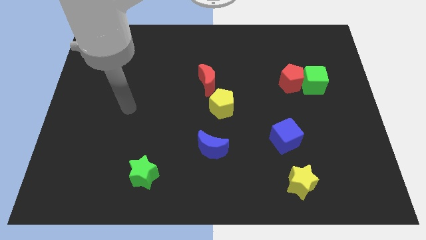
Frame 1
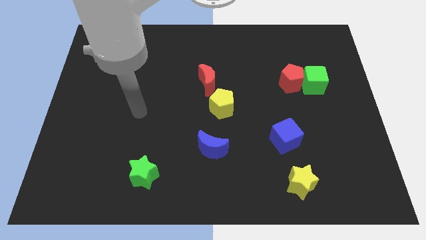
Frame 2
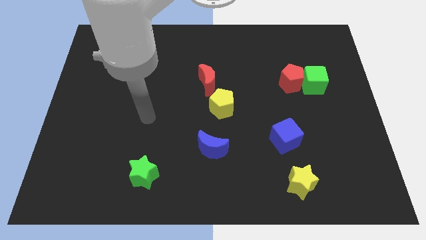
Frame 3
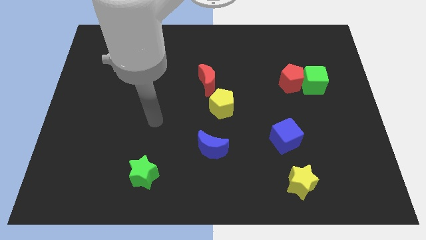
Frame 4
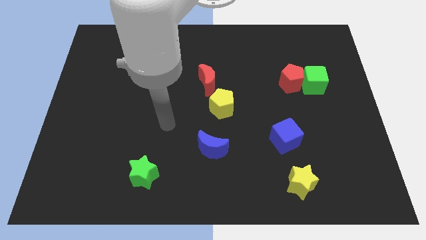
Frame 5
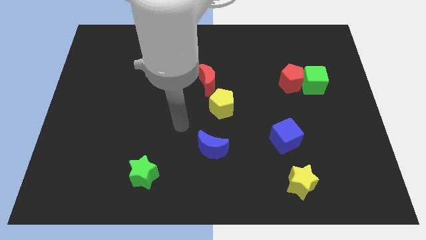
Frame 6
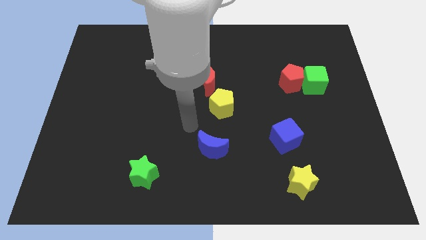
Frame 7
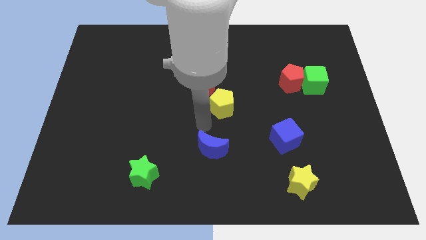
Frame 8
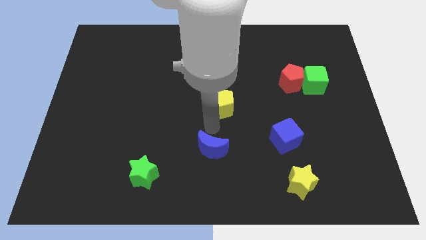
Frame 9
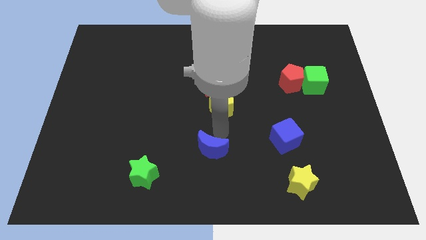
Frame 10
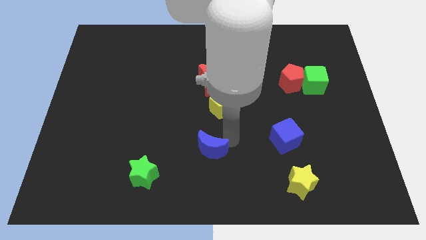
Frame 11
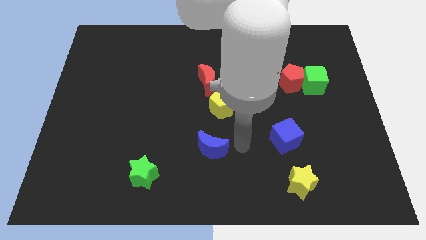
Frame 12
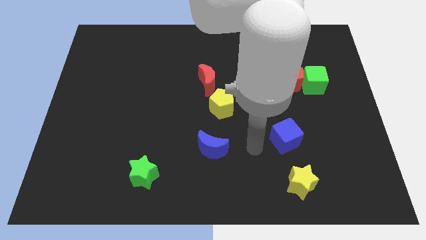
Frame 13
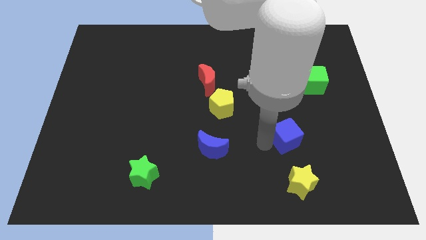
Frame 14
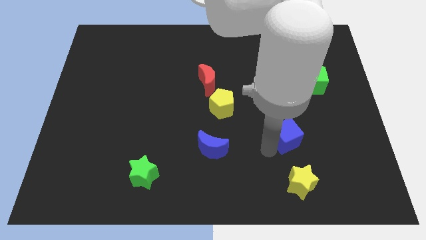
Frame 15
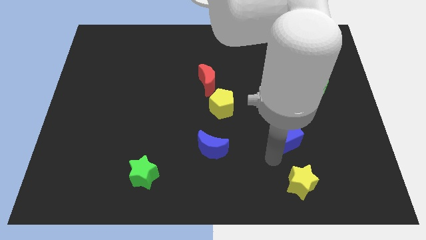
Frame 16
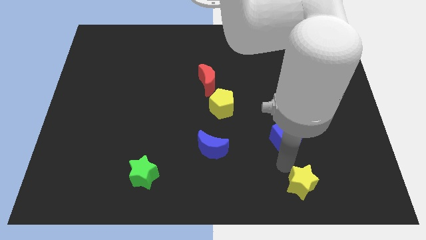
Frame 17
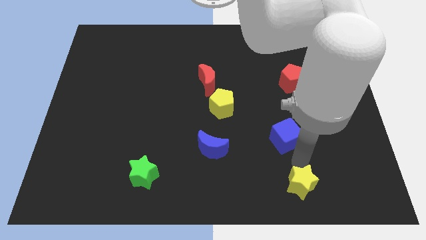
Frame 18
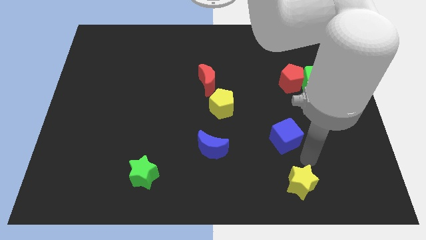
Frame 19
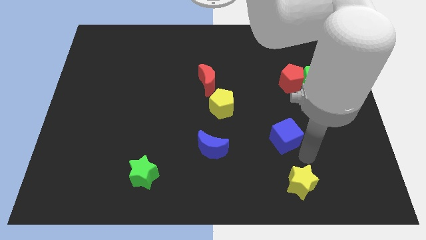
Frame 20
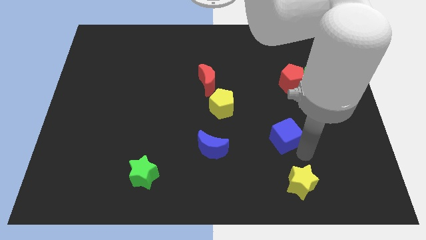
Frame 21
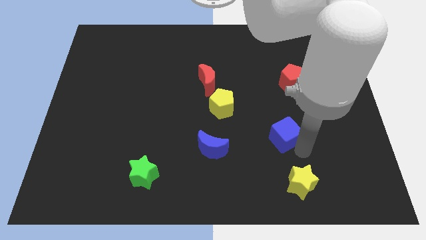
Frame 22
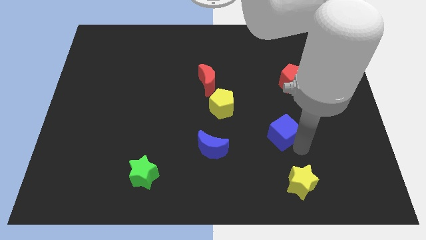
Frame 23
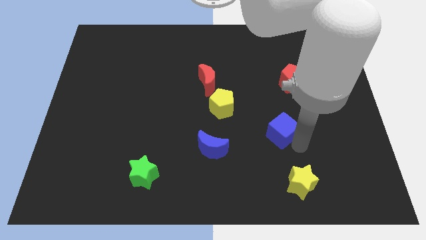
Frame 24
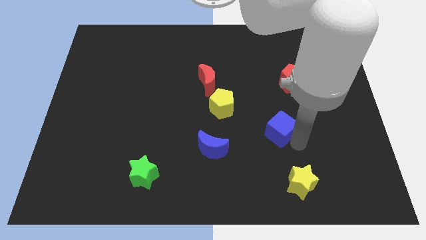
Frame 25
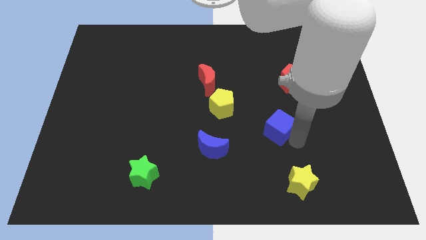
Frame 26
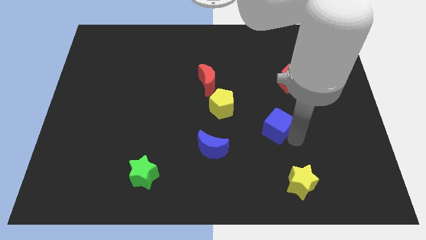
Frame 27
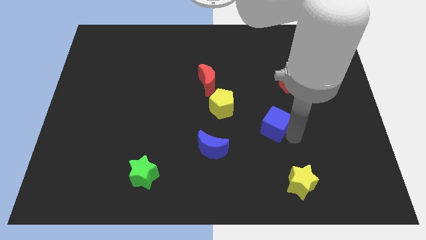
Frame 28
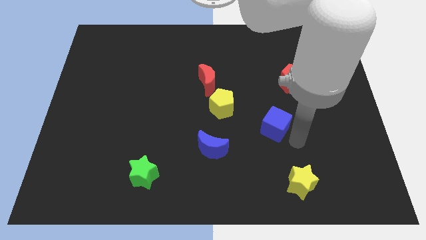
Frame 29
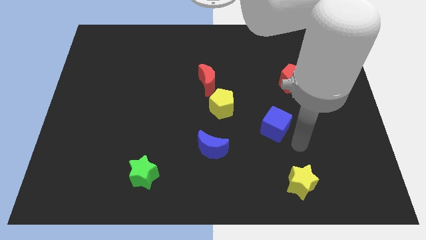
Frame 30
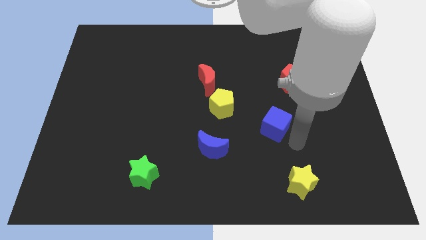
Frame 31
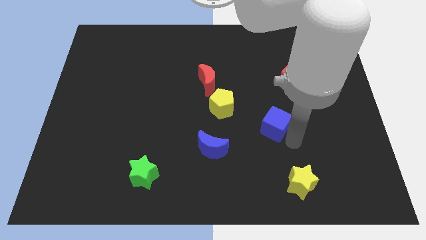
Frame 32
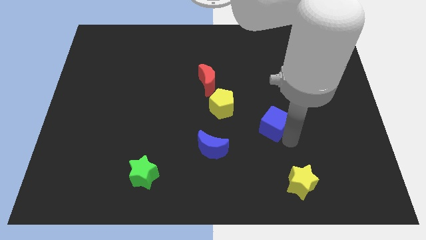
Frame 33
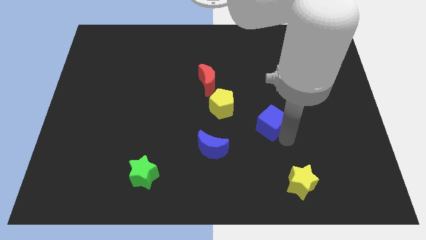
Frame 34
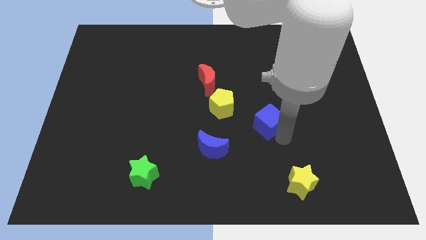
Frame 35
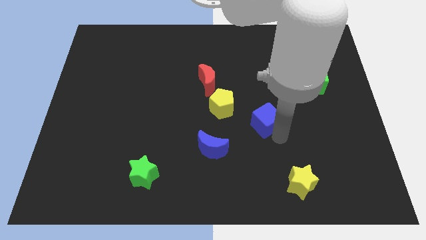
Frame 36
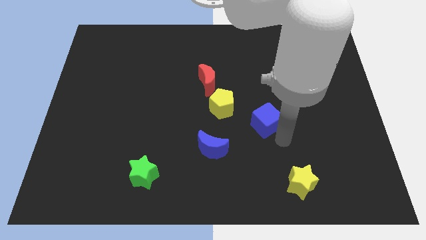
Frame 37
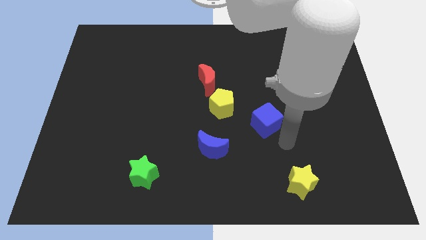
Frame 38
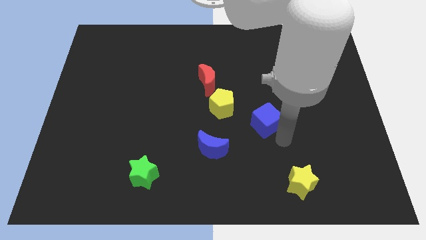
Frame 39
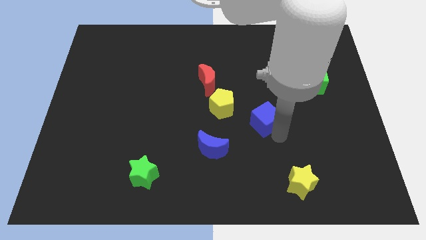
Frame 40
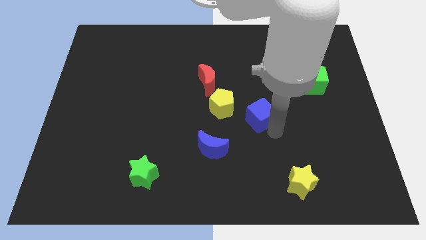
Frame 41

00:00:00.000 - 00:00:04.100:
slide the blue cube upwards and then left a little

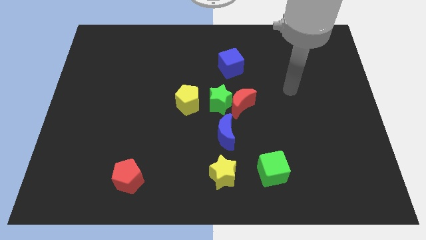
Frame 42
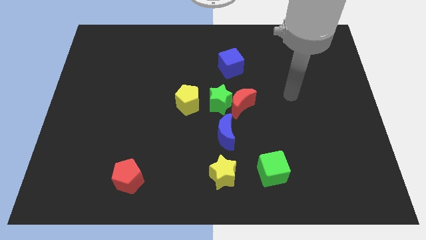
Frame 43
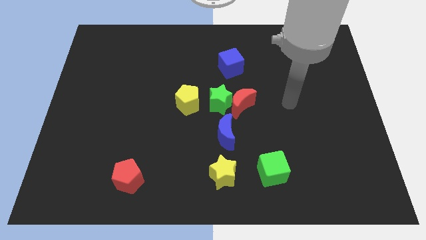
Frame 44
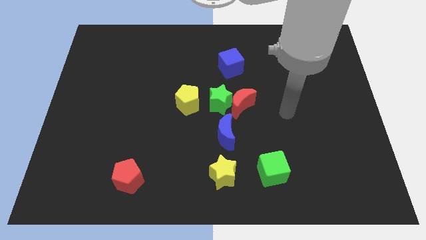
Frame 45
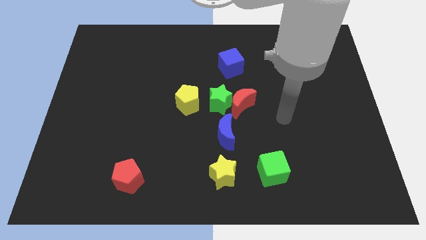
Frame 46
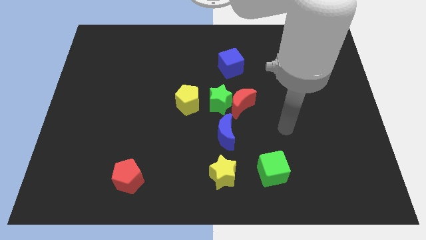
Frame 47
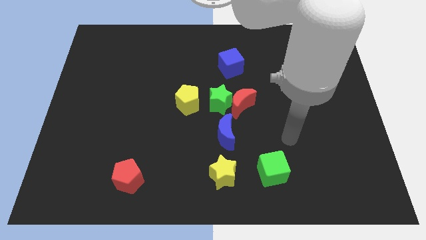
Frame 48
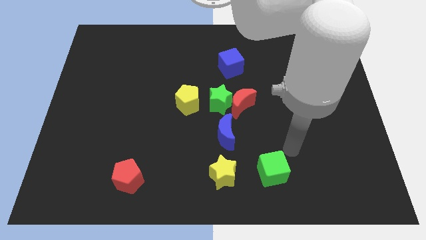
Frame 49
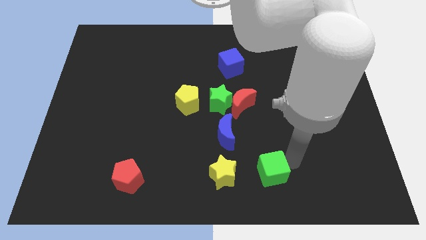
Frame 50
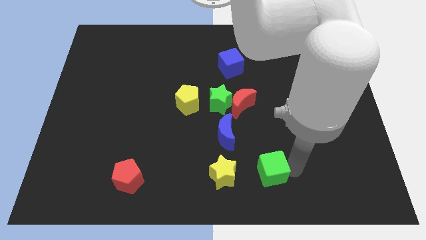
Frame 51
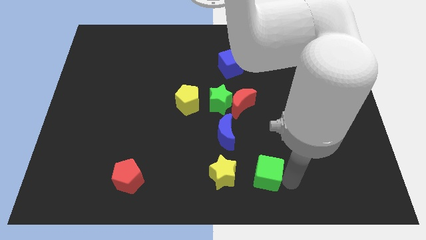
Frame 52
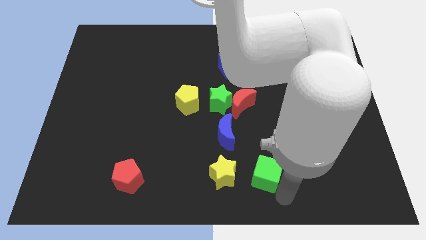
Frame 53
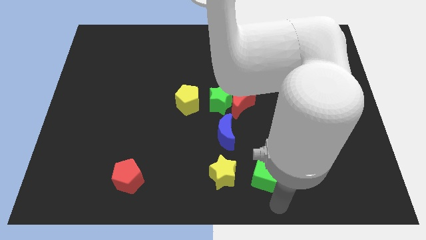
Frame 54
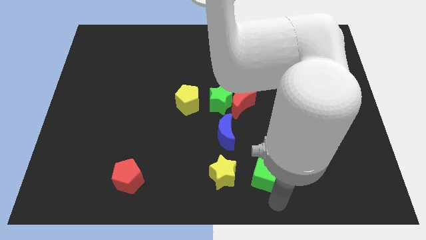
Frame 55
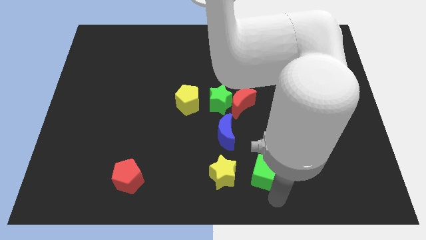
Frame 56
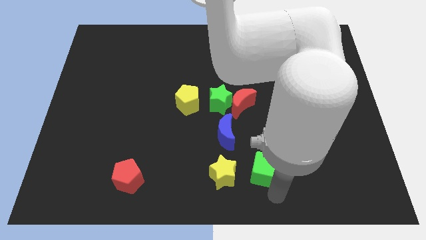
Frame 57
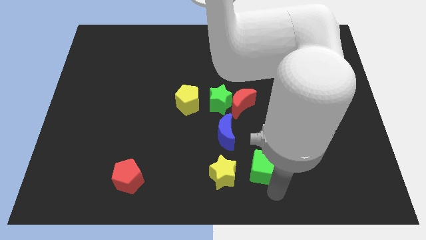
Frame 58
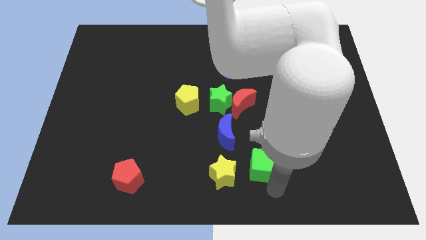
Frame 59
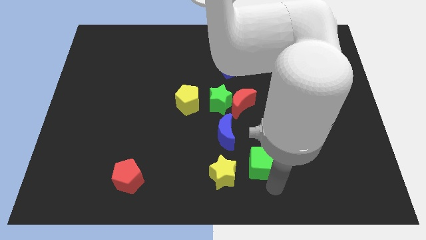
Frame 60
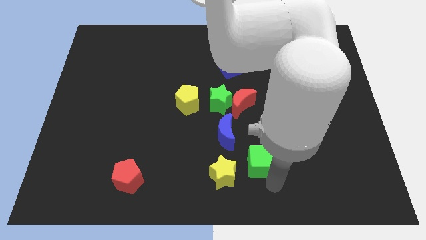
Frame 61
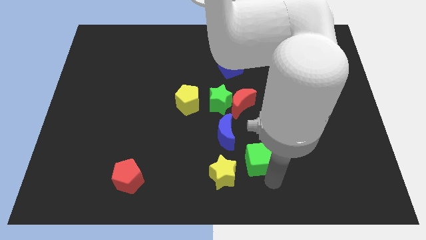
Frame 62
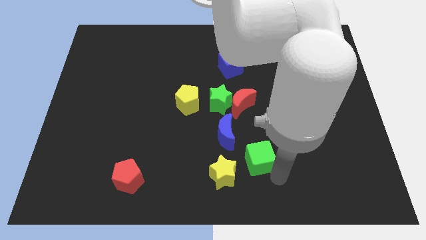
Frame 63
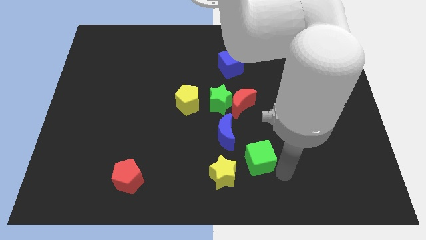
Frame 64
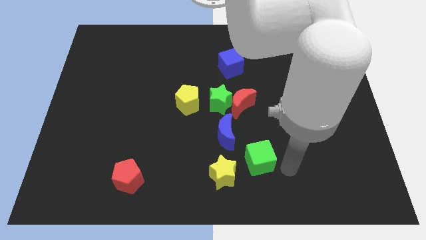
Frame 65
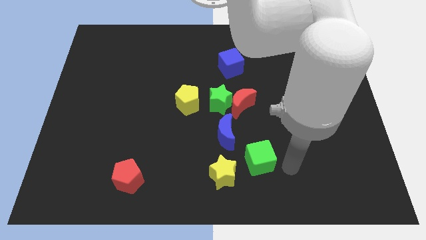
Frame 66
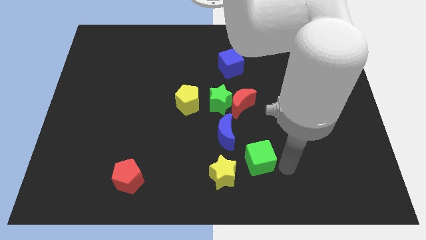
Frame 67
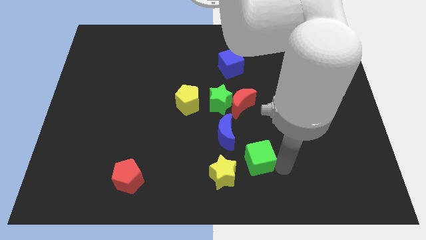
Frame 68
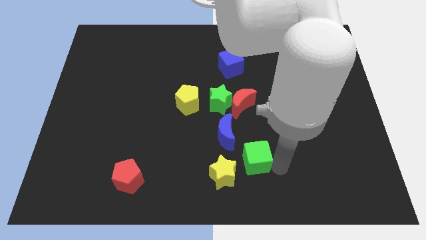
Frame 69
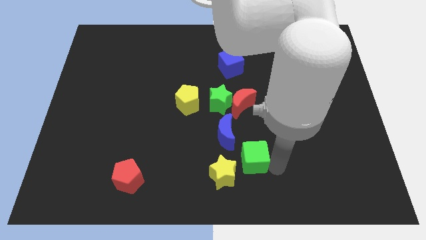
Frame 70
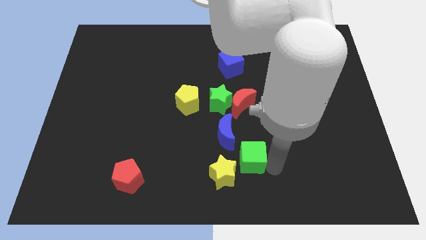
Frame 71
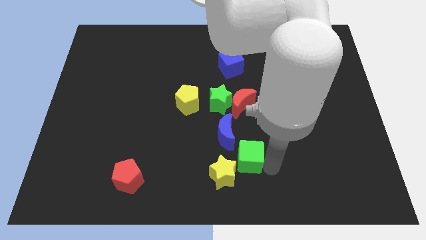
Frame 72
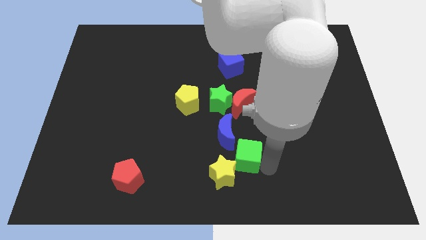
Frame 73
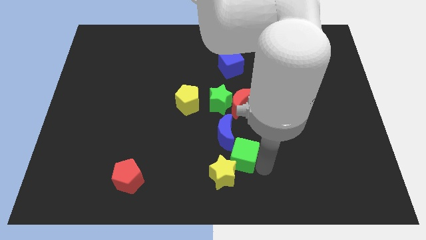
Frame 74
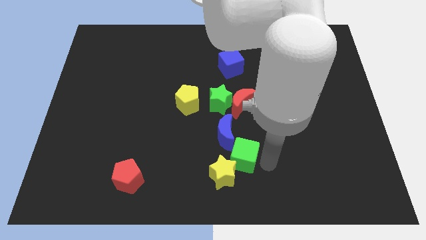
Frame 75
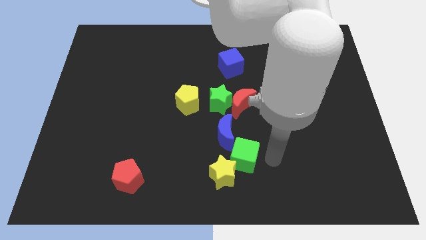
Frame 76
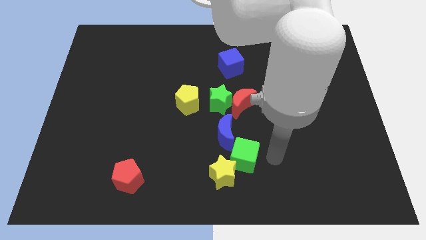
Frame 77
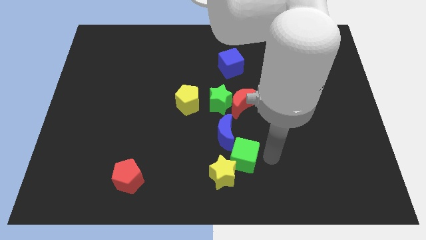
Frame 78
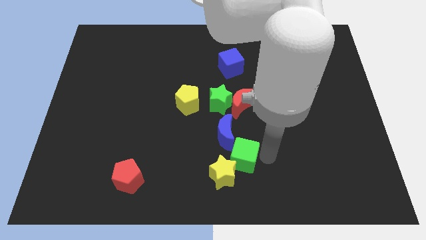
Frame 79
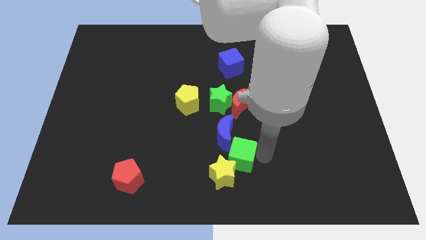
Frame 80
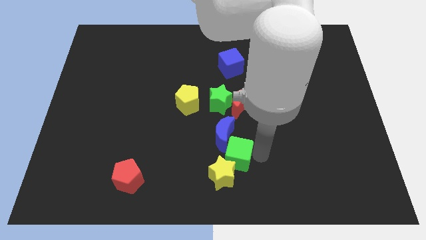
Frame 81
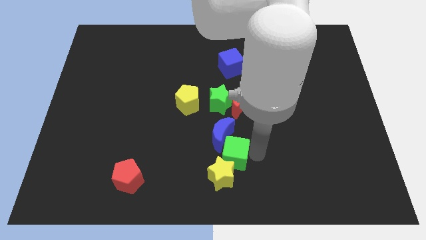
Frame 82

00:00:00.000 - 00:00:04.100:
move the green cube slightly left

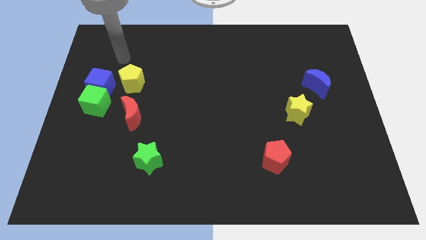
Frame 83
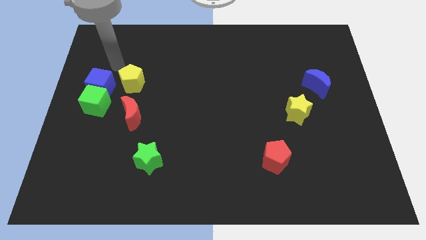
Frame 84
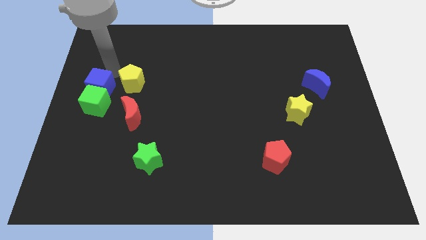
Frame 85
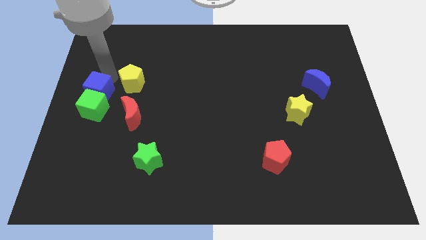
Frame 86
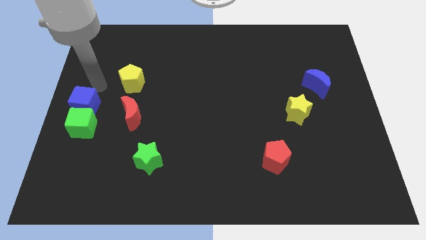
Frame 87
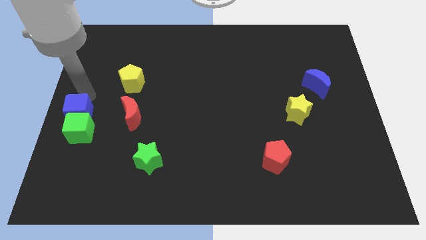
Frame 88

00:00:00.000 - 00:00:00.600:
slightly move the green cube downwards
